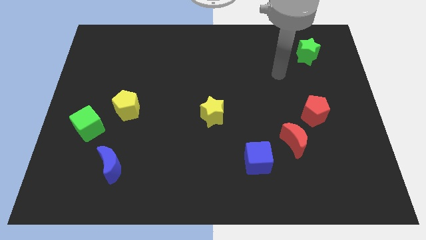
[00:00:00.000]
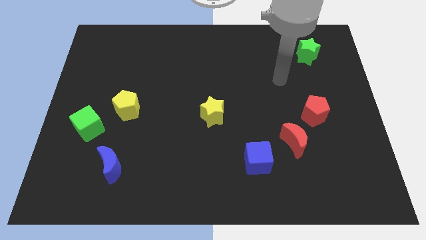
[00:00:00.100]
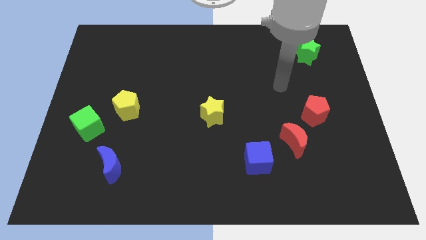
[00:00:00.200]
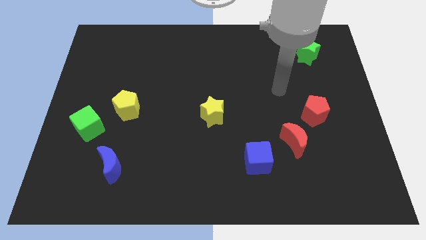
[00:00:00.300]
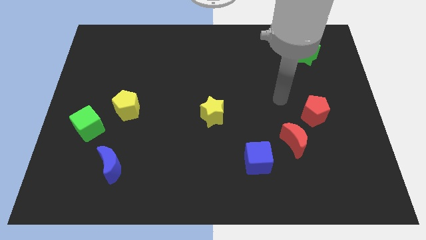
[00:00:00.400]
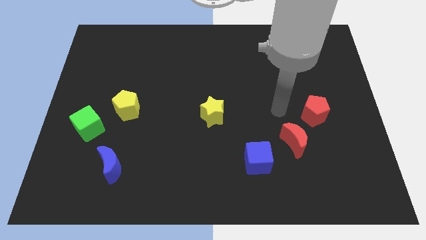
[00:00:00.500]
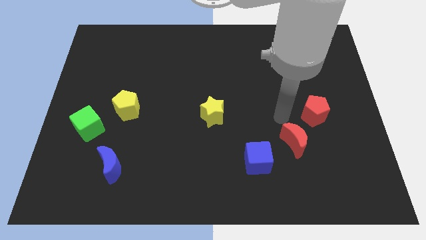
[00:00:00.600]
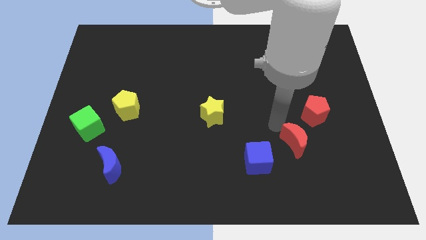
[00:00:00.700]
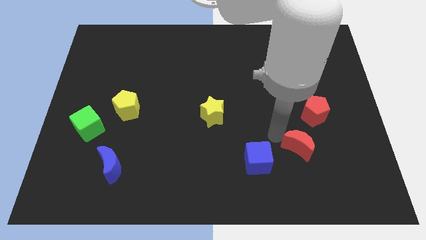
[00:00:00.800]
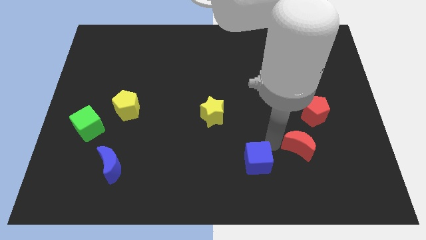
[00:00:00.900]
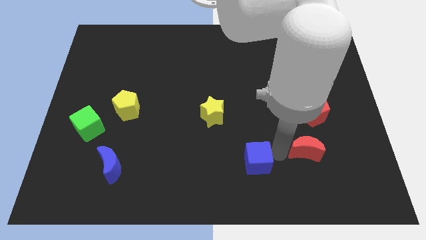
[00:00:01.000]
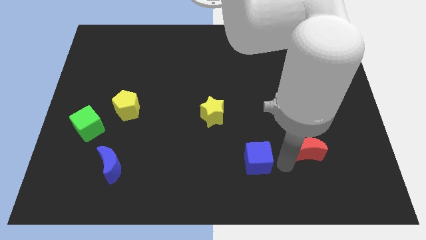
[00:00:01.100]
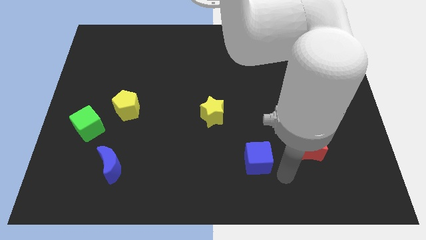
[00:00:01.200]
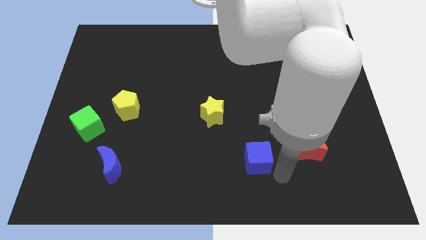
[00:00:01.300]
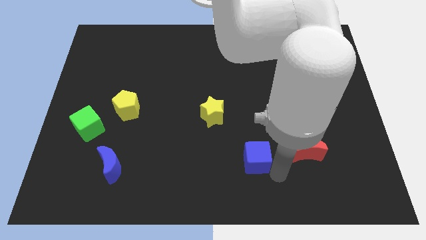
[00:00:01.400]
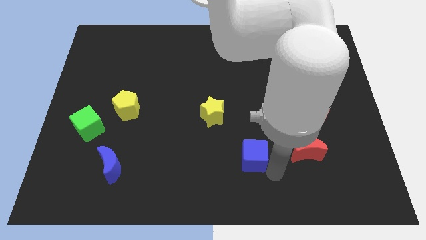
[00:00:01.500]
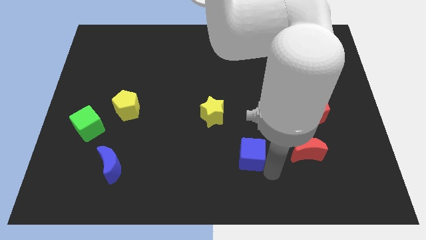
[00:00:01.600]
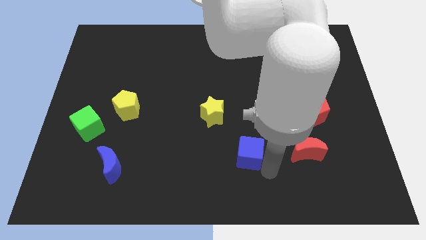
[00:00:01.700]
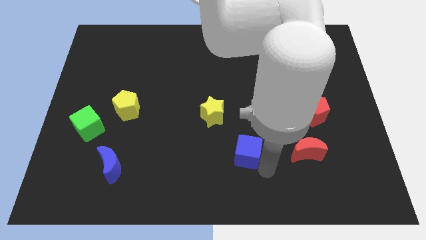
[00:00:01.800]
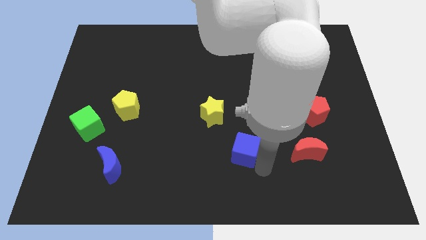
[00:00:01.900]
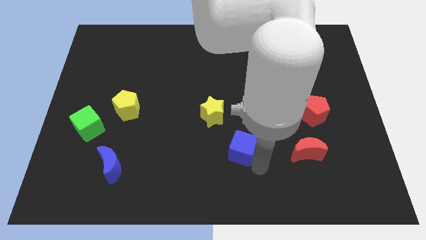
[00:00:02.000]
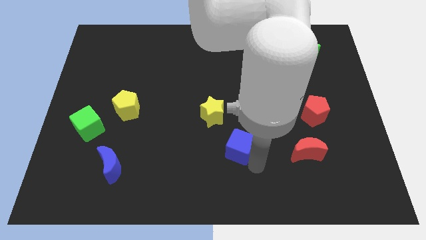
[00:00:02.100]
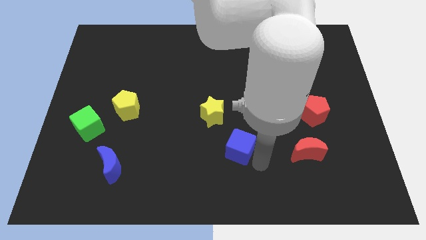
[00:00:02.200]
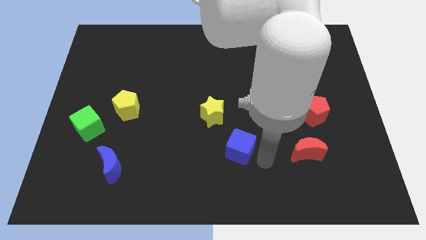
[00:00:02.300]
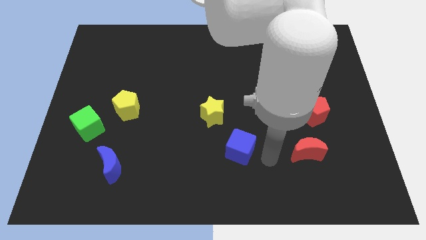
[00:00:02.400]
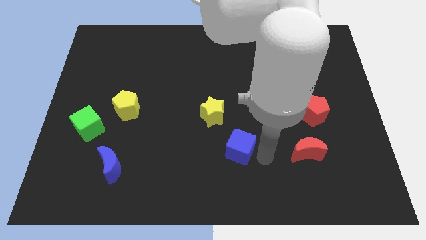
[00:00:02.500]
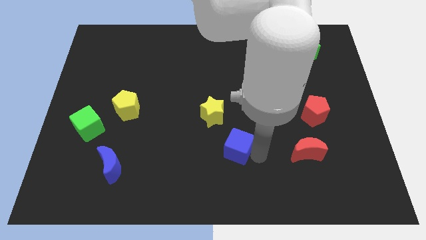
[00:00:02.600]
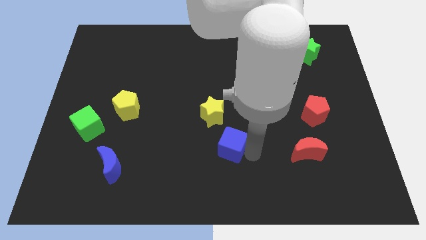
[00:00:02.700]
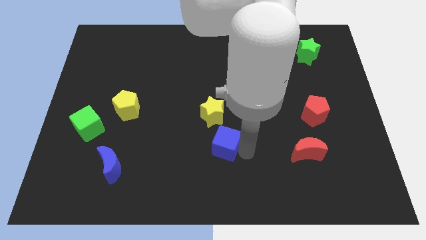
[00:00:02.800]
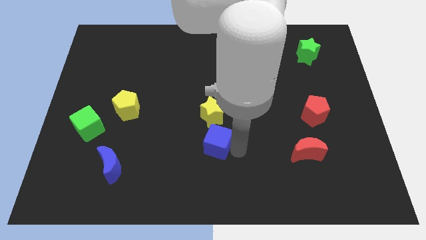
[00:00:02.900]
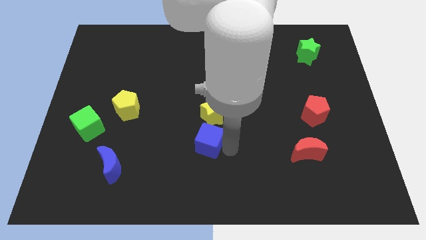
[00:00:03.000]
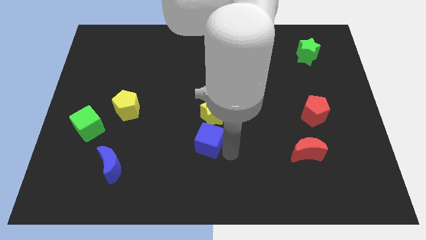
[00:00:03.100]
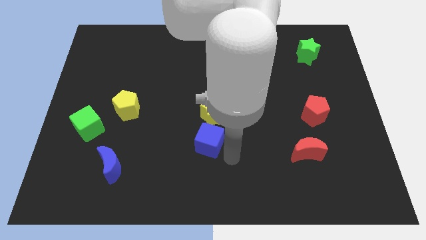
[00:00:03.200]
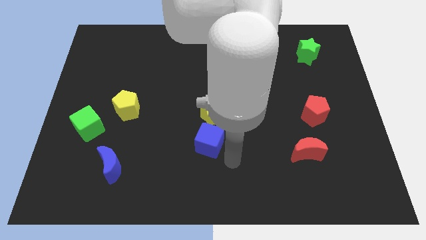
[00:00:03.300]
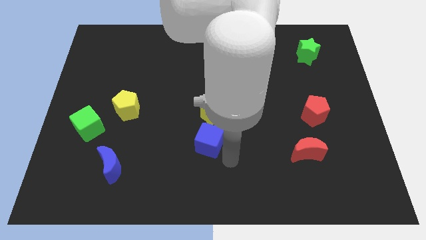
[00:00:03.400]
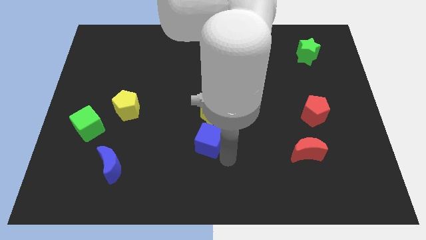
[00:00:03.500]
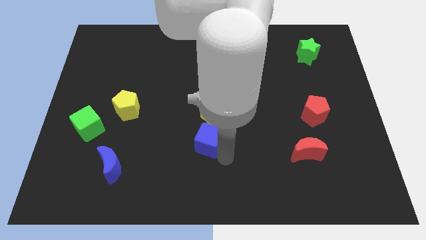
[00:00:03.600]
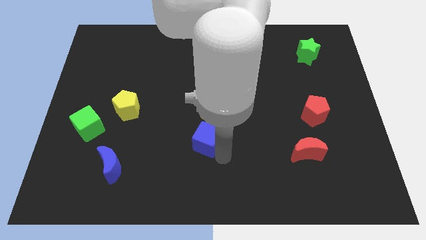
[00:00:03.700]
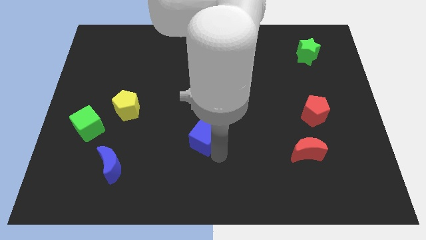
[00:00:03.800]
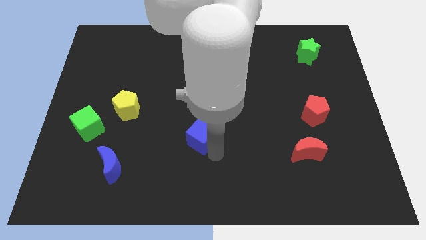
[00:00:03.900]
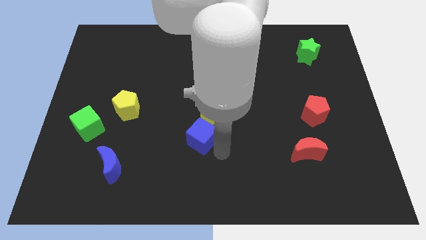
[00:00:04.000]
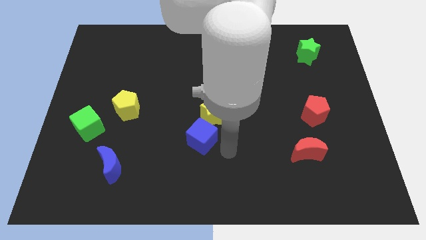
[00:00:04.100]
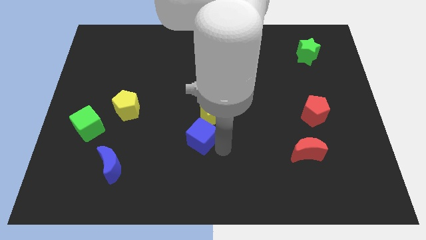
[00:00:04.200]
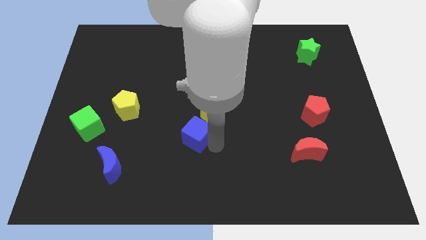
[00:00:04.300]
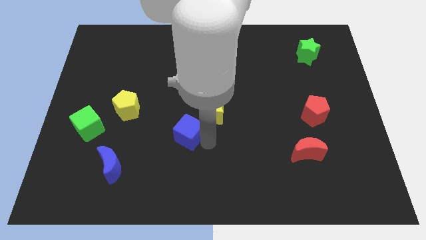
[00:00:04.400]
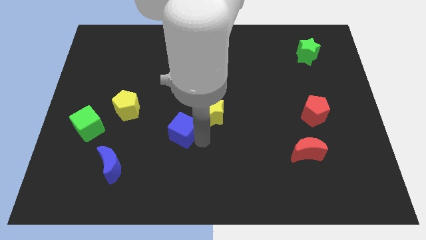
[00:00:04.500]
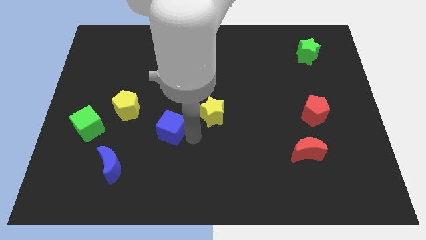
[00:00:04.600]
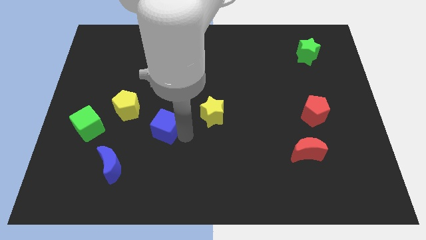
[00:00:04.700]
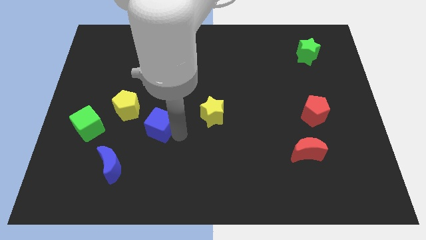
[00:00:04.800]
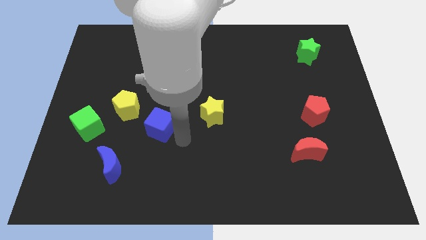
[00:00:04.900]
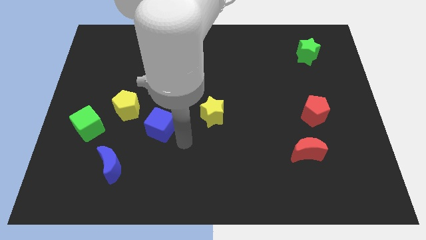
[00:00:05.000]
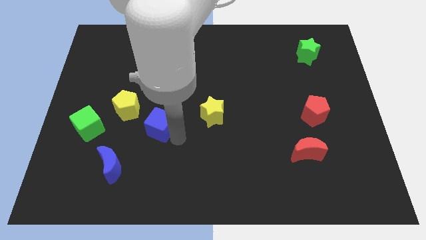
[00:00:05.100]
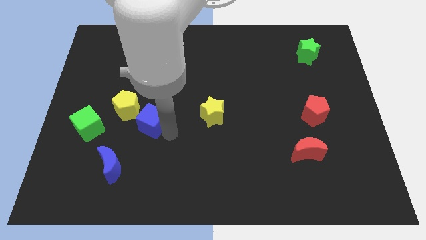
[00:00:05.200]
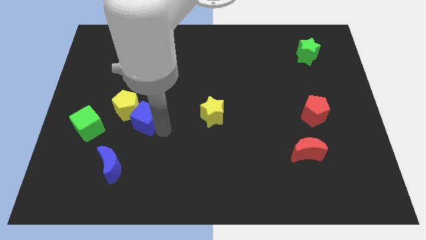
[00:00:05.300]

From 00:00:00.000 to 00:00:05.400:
put the blue cube to the yellow pentagon

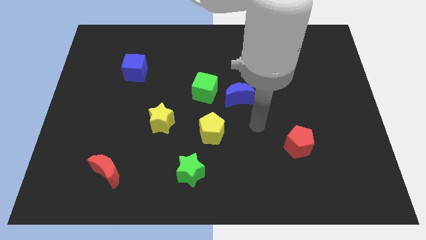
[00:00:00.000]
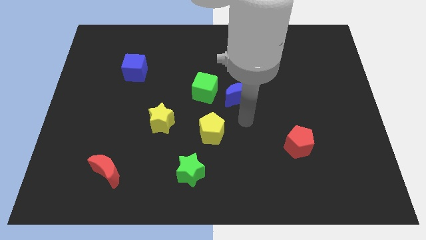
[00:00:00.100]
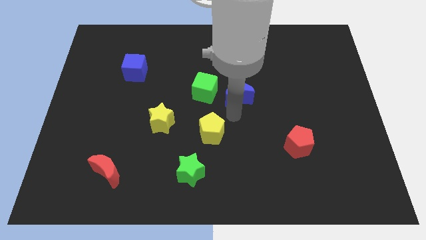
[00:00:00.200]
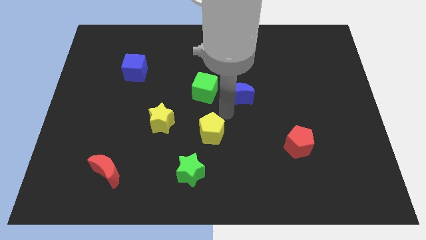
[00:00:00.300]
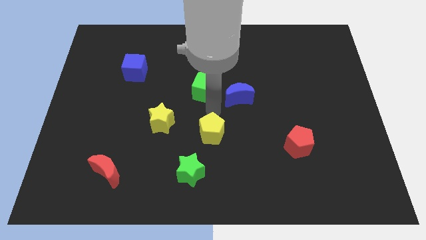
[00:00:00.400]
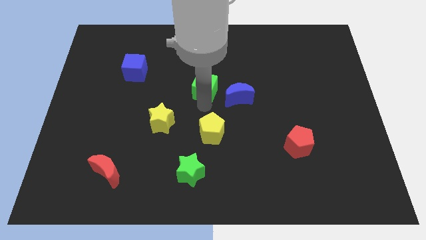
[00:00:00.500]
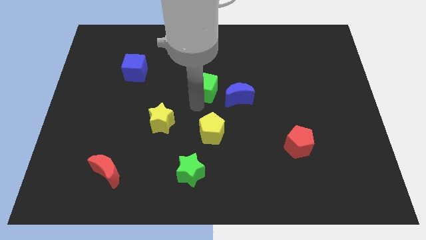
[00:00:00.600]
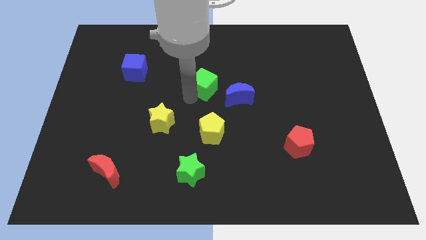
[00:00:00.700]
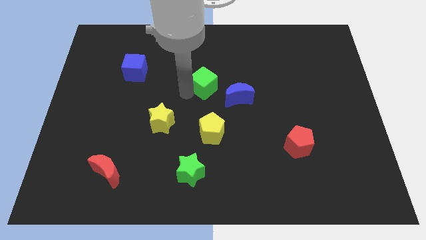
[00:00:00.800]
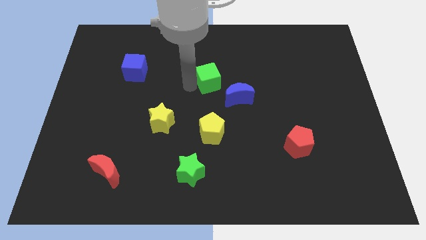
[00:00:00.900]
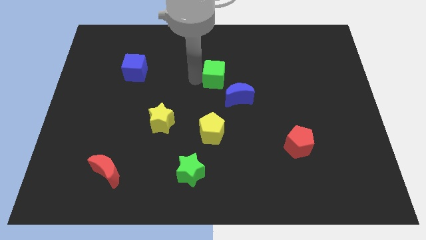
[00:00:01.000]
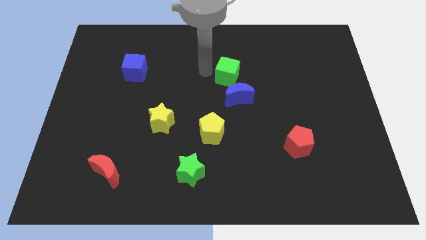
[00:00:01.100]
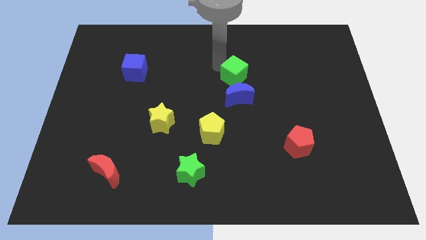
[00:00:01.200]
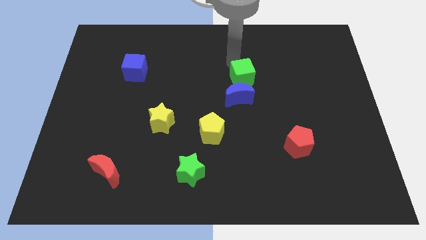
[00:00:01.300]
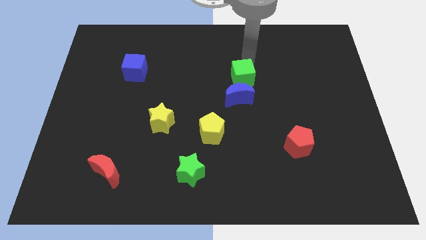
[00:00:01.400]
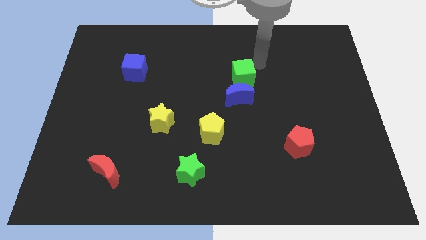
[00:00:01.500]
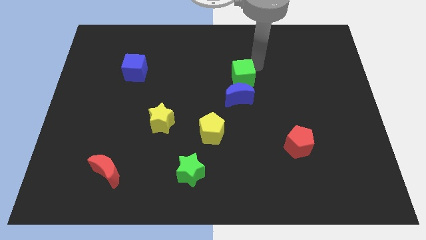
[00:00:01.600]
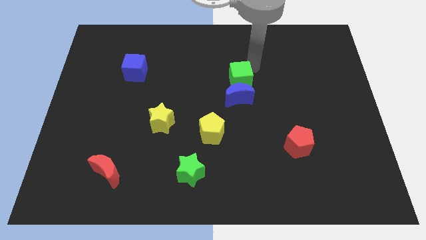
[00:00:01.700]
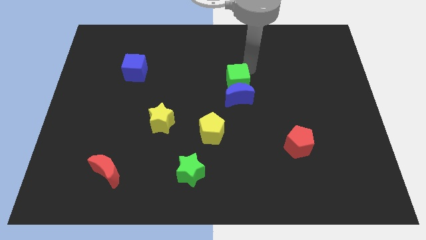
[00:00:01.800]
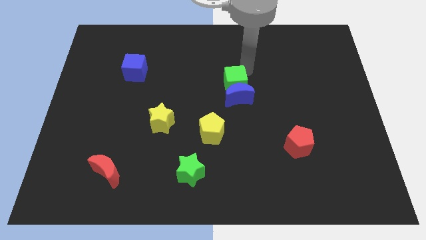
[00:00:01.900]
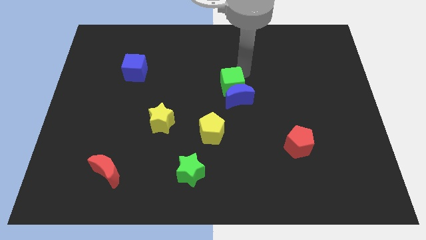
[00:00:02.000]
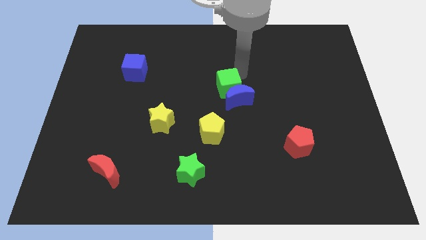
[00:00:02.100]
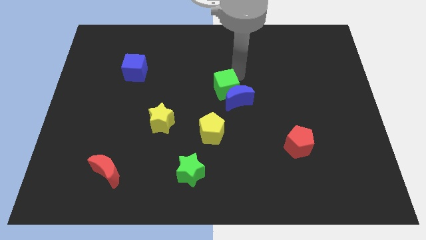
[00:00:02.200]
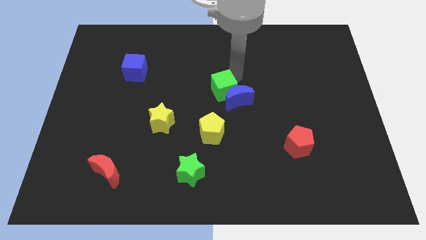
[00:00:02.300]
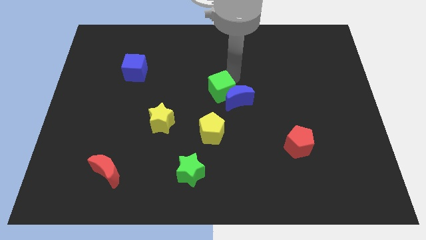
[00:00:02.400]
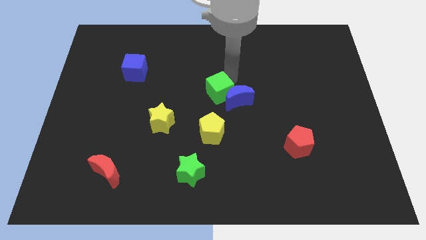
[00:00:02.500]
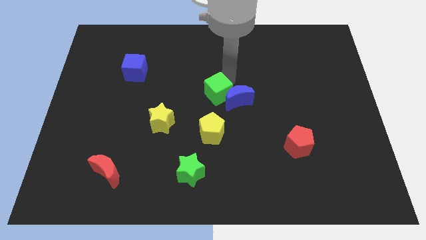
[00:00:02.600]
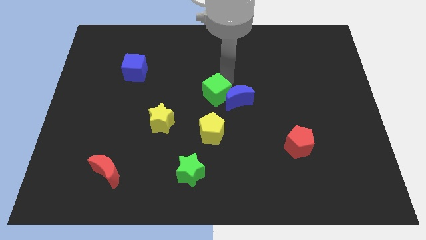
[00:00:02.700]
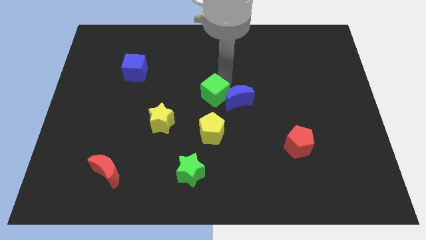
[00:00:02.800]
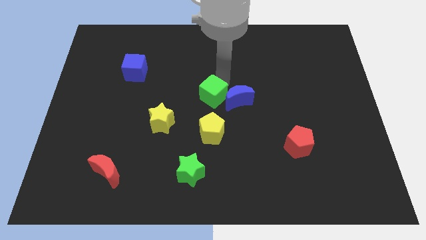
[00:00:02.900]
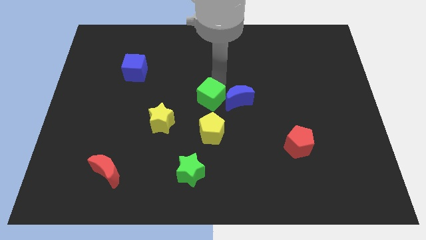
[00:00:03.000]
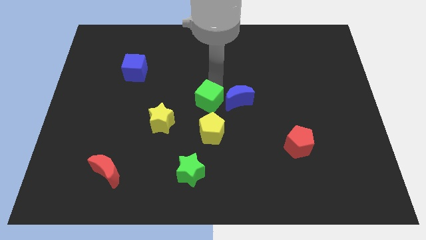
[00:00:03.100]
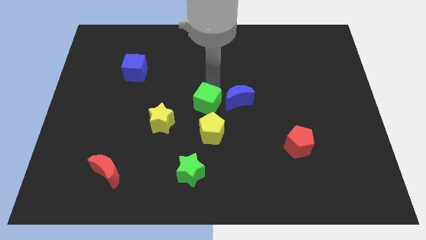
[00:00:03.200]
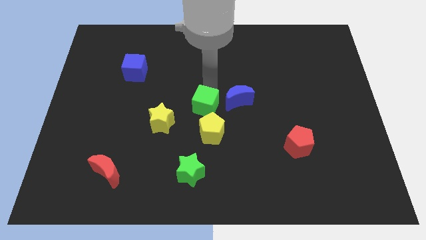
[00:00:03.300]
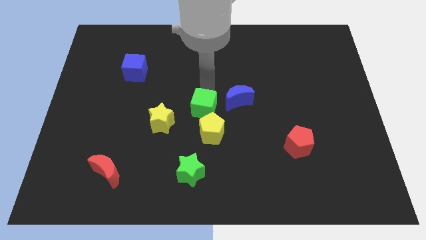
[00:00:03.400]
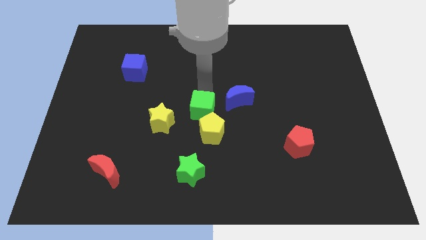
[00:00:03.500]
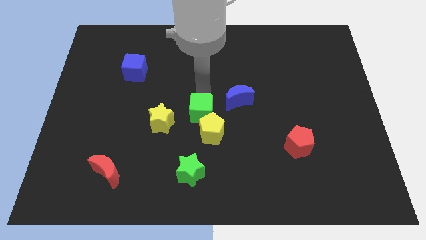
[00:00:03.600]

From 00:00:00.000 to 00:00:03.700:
push the green cube close to the yellow pentagon
